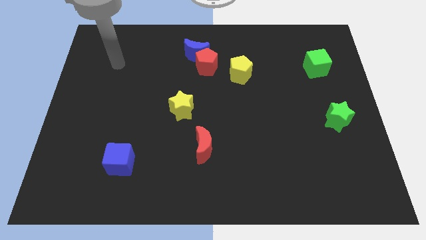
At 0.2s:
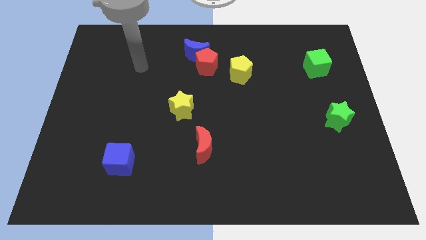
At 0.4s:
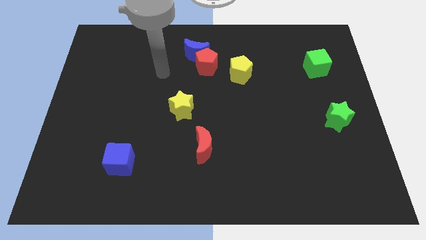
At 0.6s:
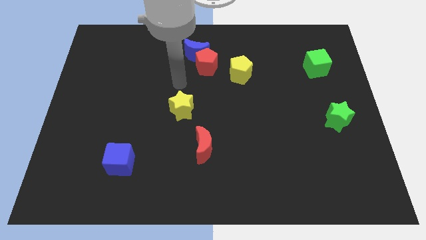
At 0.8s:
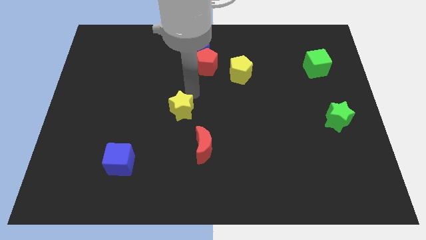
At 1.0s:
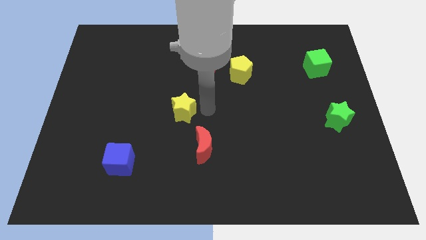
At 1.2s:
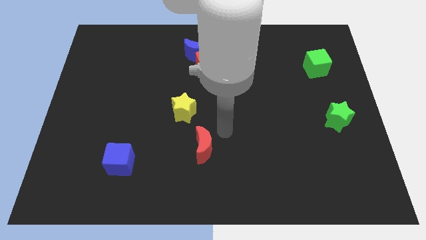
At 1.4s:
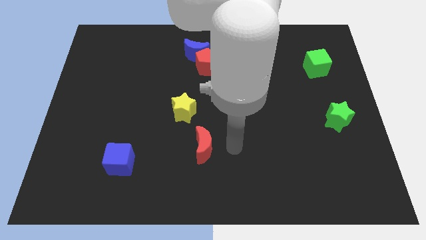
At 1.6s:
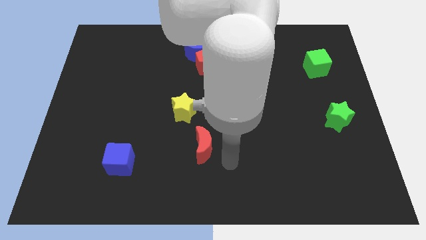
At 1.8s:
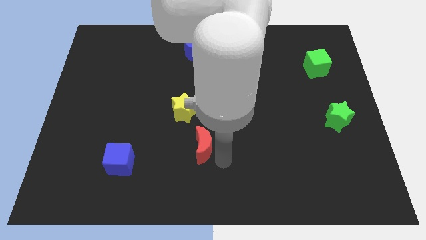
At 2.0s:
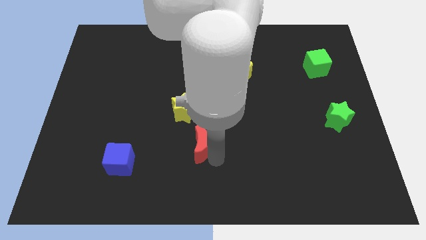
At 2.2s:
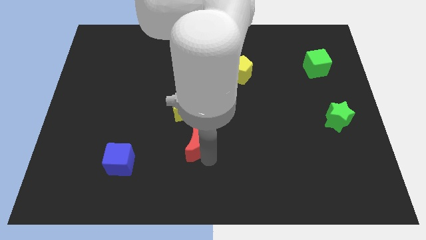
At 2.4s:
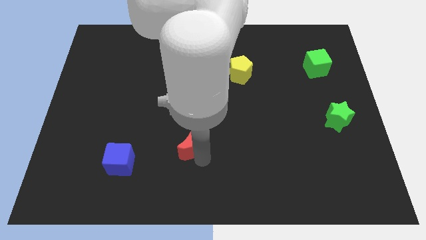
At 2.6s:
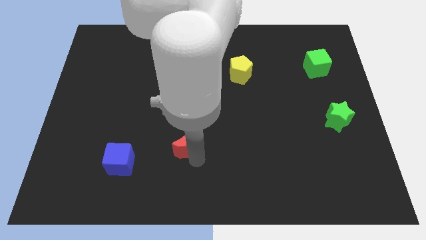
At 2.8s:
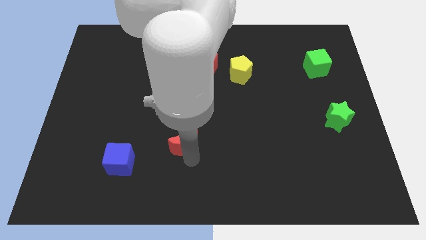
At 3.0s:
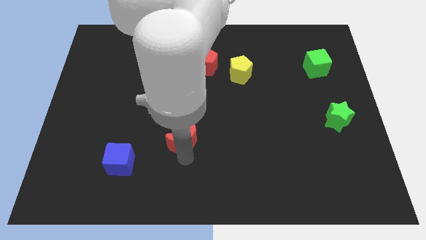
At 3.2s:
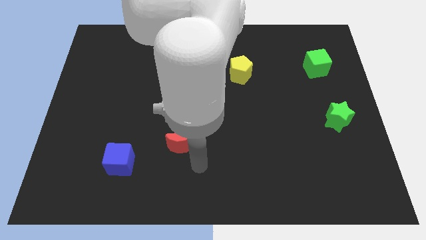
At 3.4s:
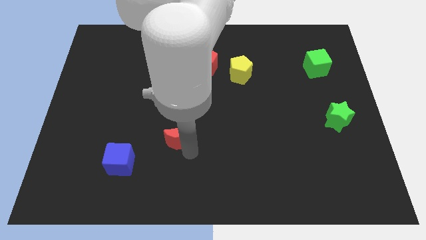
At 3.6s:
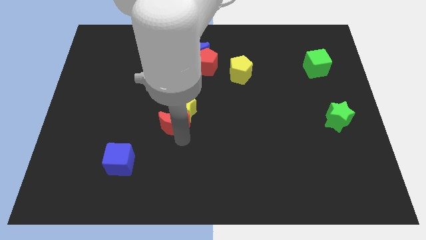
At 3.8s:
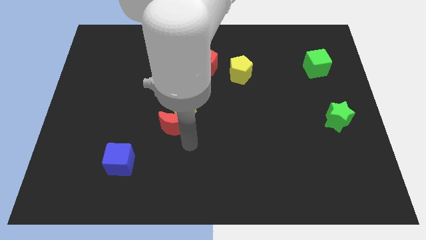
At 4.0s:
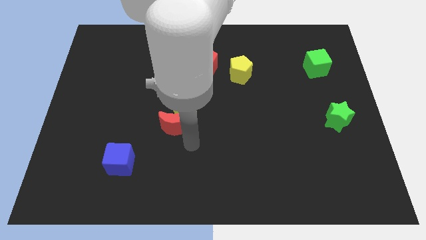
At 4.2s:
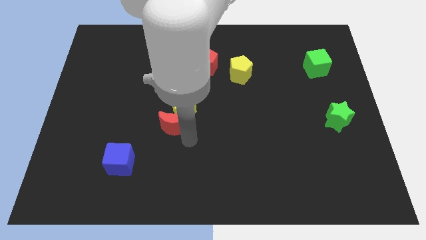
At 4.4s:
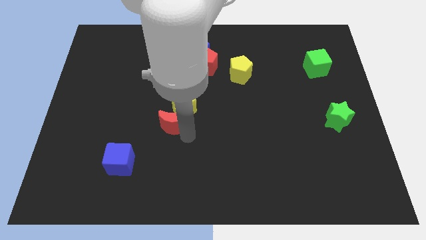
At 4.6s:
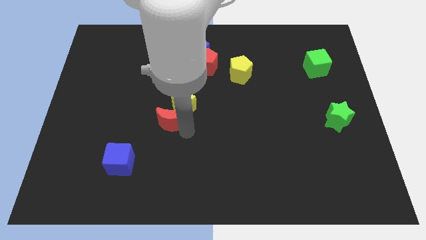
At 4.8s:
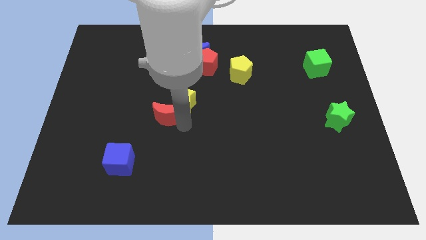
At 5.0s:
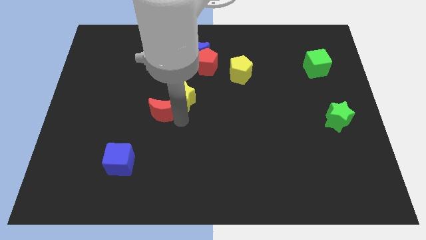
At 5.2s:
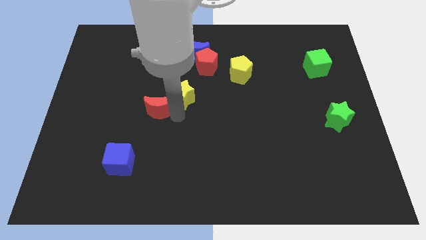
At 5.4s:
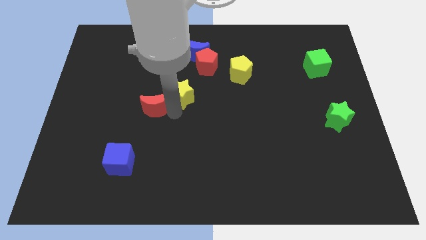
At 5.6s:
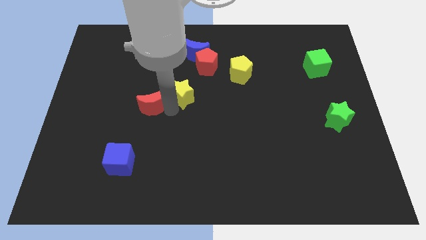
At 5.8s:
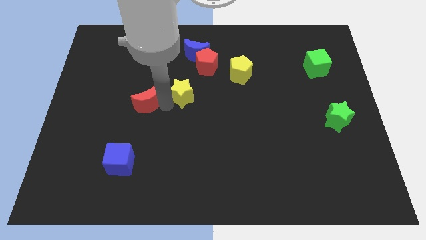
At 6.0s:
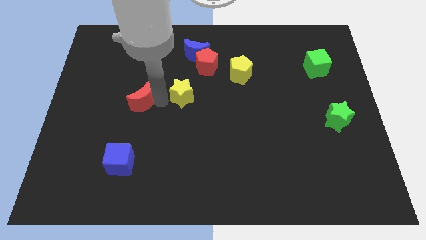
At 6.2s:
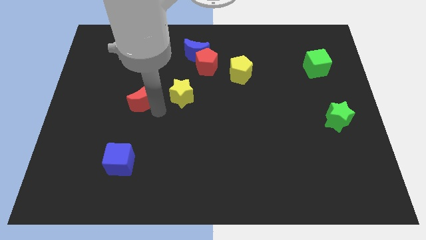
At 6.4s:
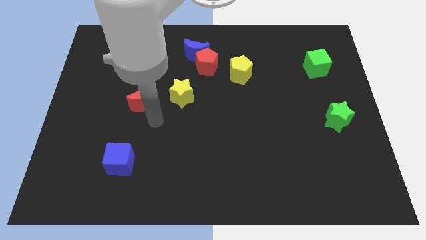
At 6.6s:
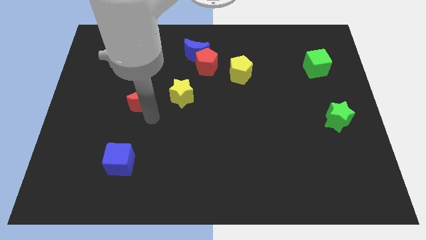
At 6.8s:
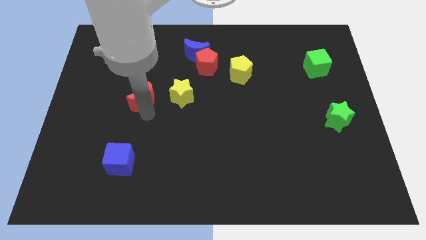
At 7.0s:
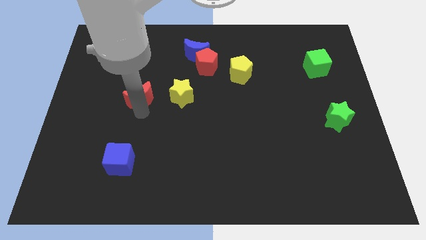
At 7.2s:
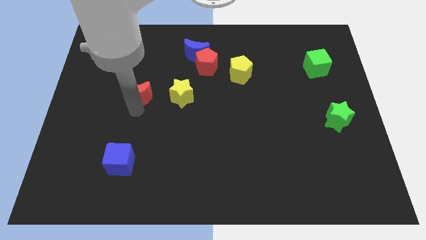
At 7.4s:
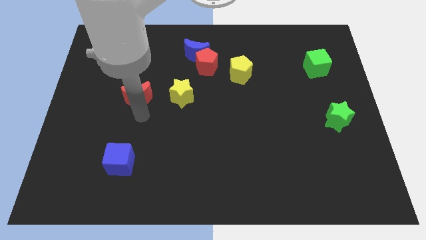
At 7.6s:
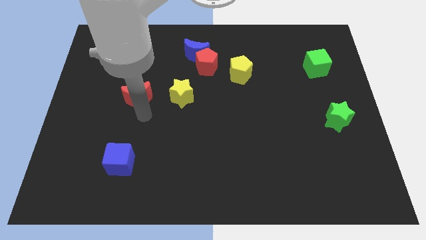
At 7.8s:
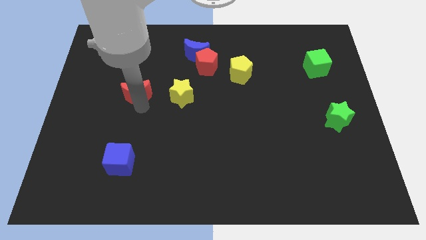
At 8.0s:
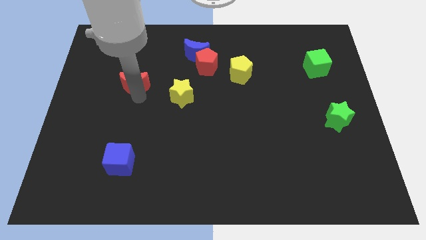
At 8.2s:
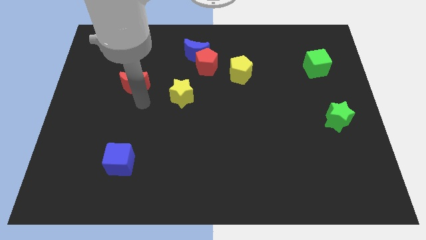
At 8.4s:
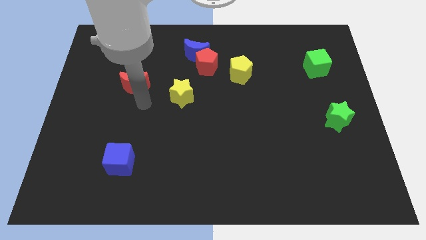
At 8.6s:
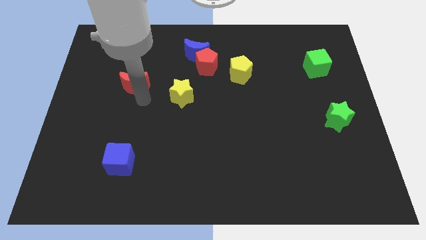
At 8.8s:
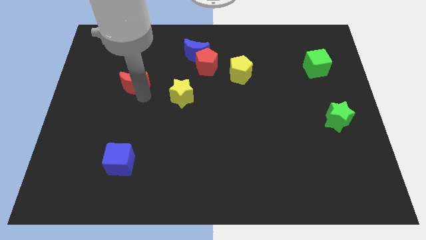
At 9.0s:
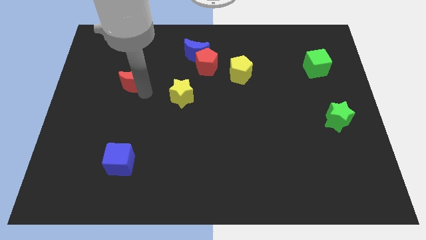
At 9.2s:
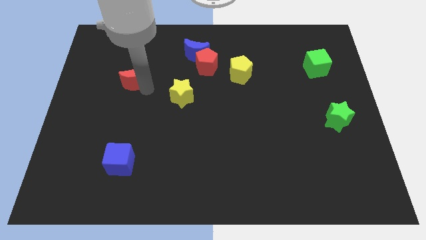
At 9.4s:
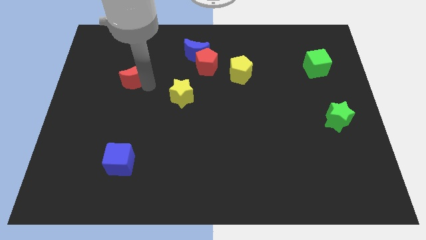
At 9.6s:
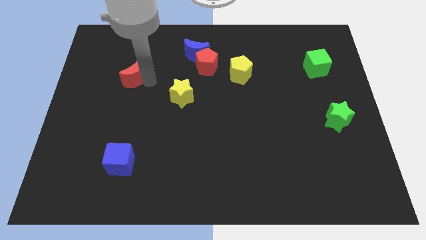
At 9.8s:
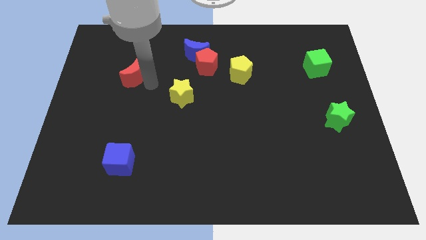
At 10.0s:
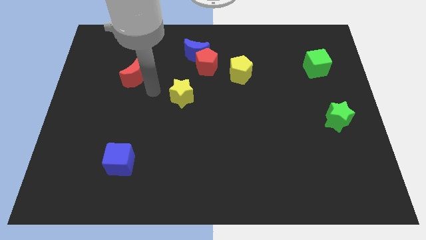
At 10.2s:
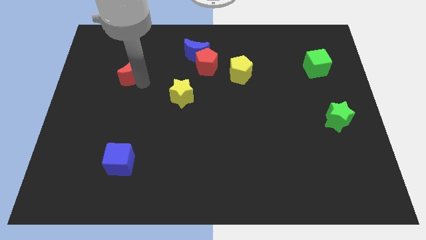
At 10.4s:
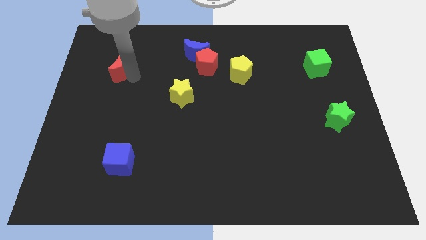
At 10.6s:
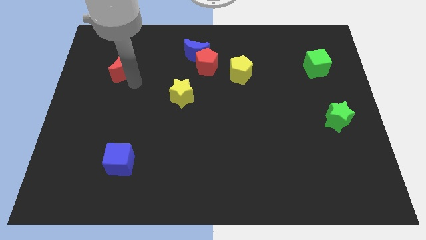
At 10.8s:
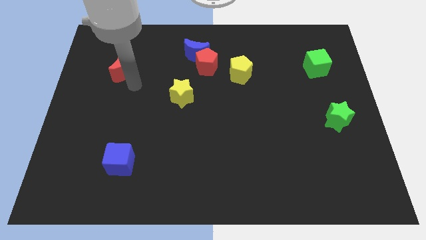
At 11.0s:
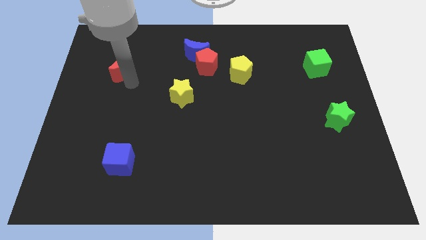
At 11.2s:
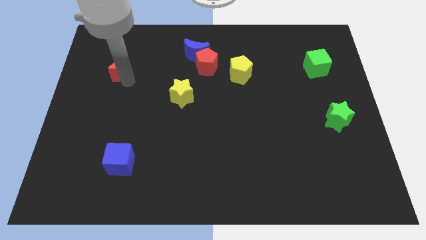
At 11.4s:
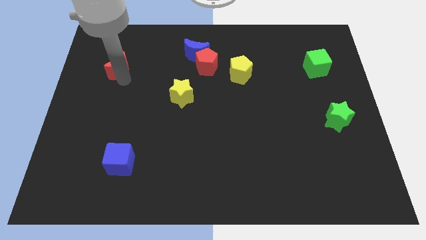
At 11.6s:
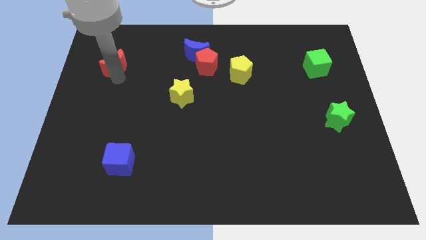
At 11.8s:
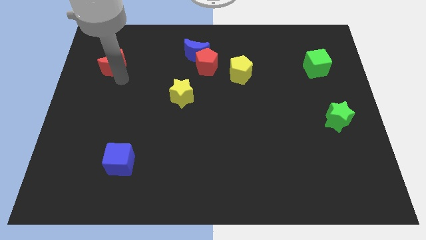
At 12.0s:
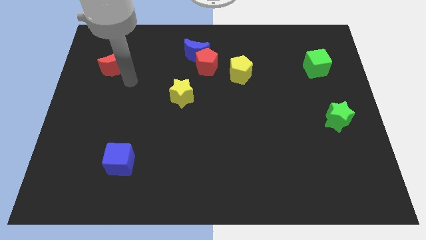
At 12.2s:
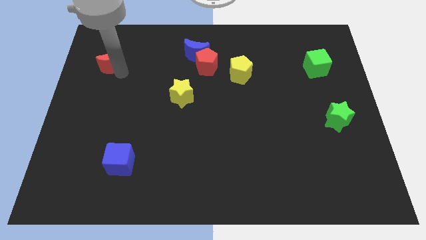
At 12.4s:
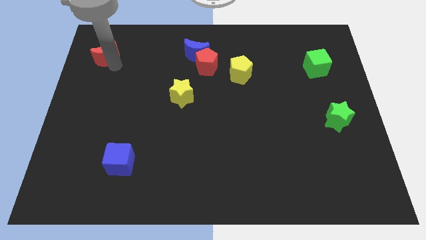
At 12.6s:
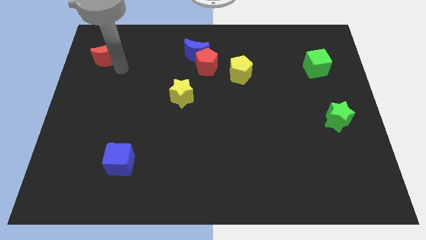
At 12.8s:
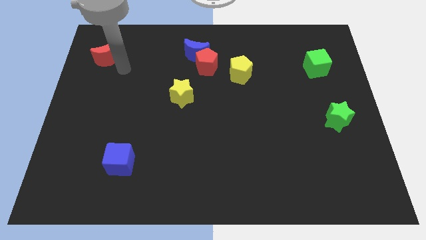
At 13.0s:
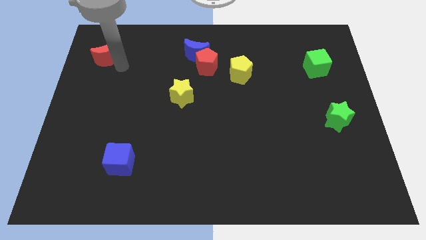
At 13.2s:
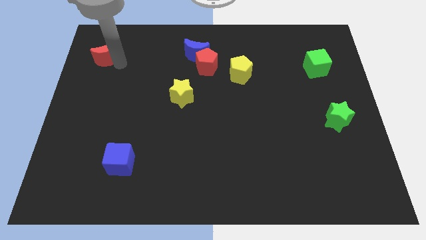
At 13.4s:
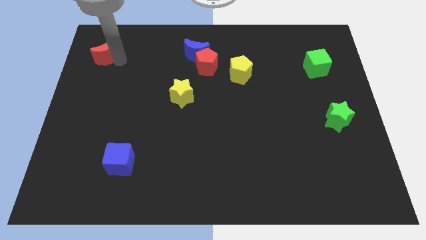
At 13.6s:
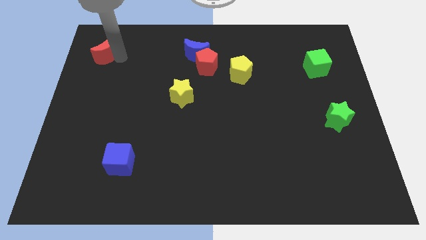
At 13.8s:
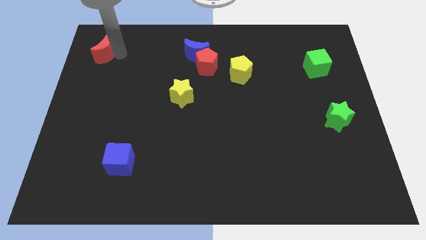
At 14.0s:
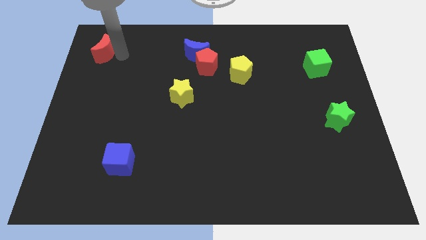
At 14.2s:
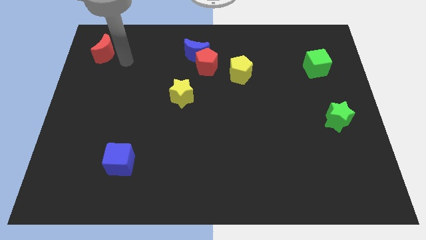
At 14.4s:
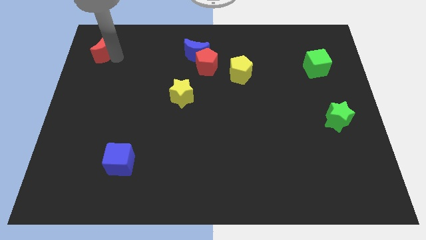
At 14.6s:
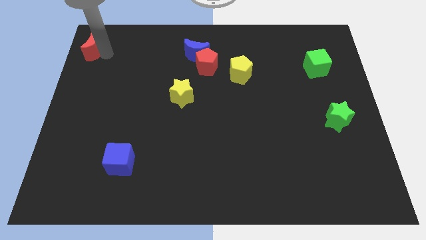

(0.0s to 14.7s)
slide the red moon to the top left corner
